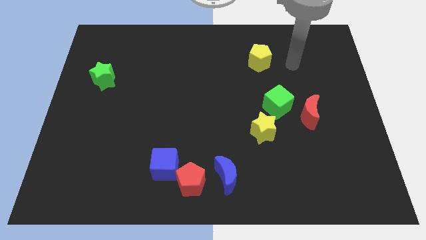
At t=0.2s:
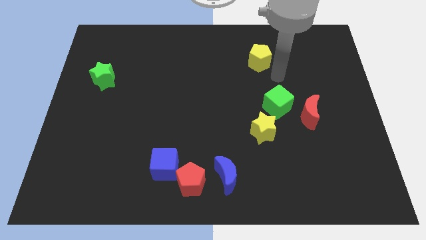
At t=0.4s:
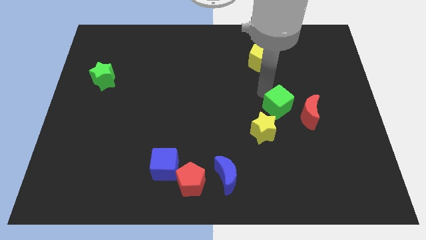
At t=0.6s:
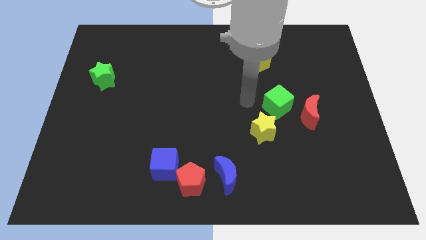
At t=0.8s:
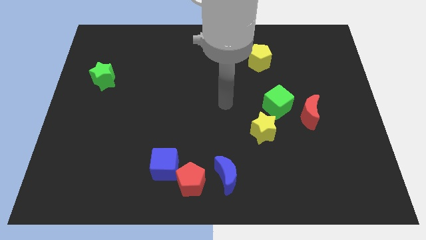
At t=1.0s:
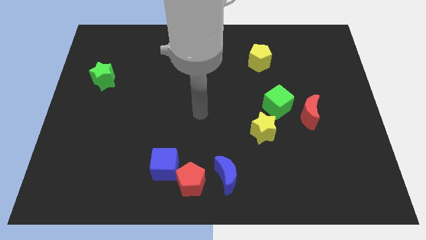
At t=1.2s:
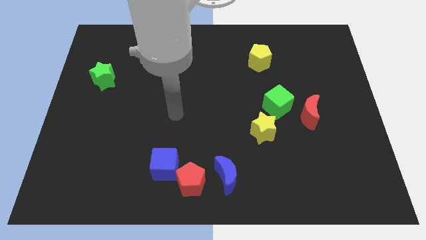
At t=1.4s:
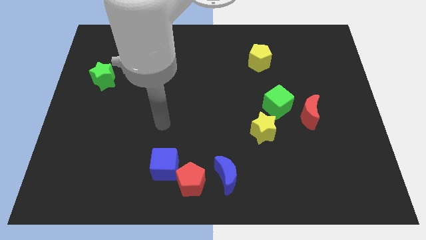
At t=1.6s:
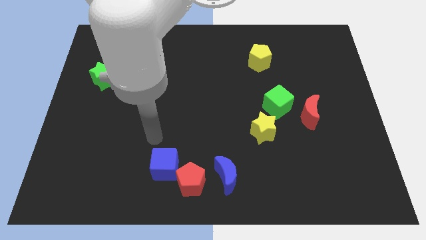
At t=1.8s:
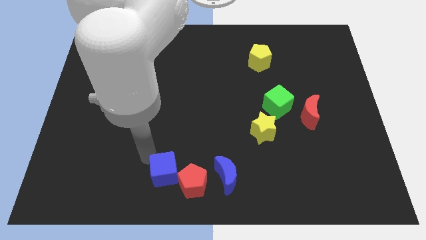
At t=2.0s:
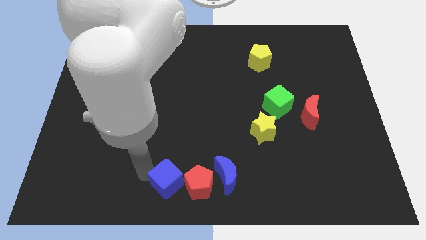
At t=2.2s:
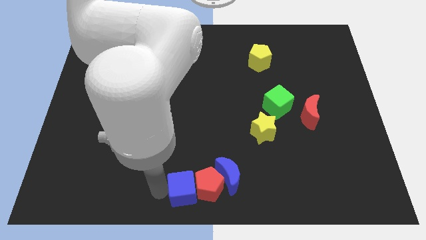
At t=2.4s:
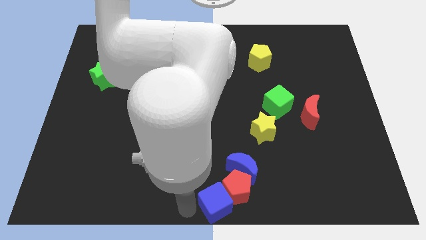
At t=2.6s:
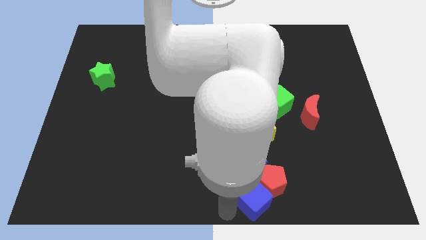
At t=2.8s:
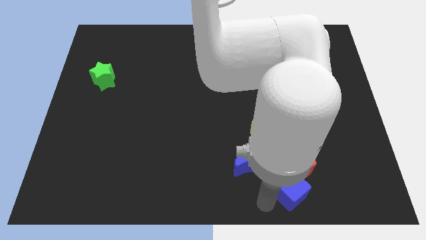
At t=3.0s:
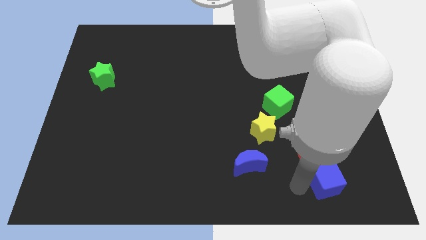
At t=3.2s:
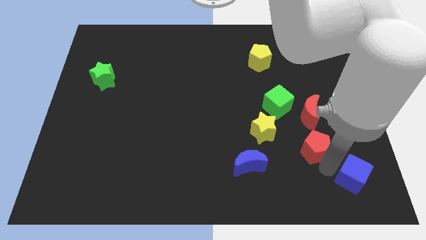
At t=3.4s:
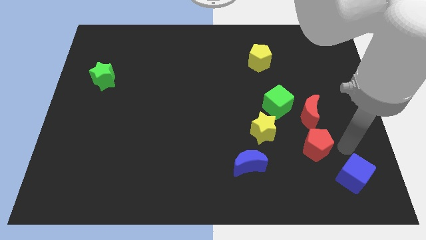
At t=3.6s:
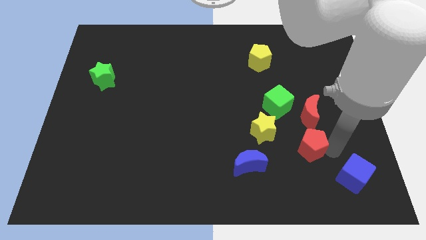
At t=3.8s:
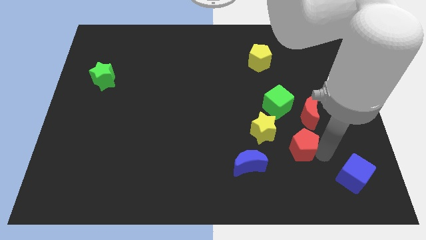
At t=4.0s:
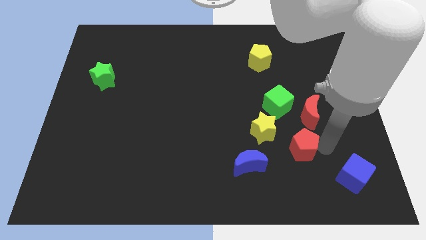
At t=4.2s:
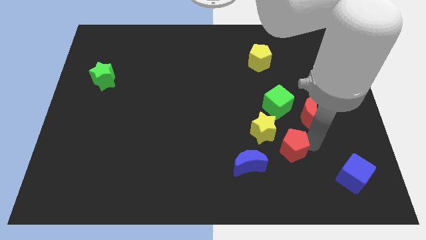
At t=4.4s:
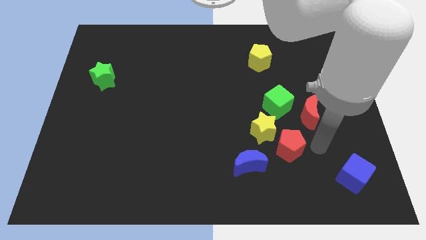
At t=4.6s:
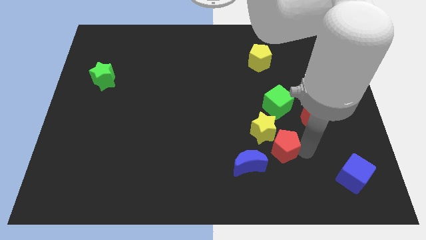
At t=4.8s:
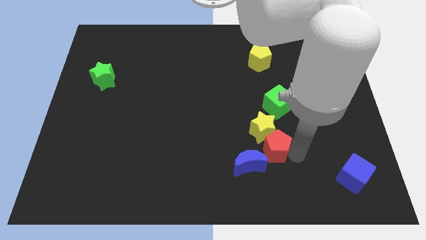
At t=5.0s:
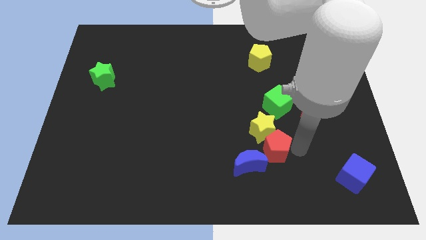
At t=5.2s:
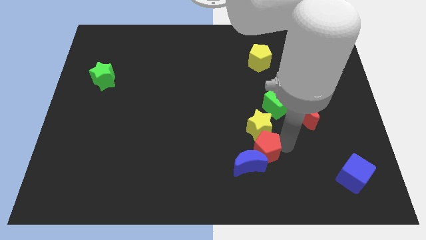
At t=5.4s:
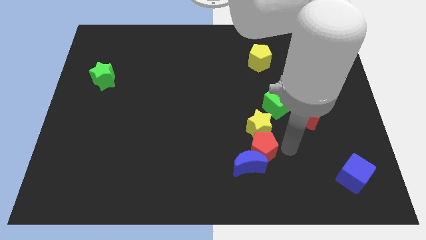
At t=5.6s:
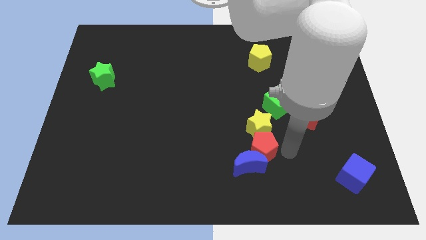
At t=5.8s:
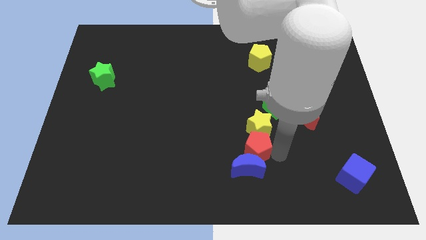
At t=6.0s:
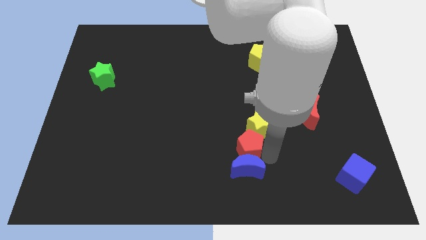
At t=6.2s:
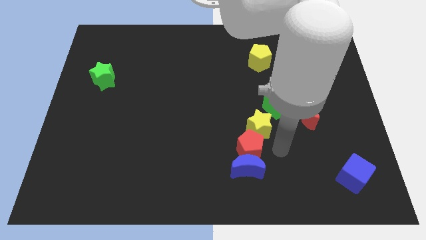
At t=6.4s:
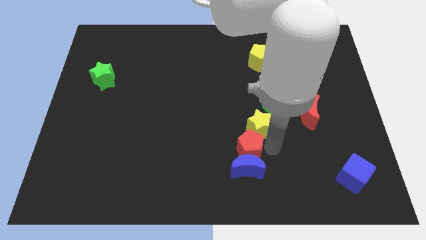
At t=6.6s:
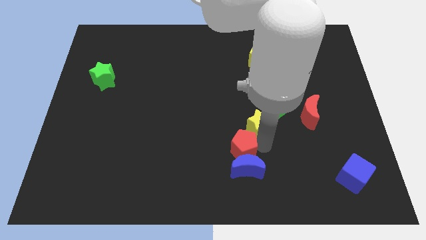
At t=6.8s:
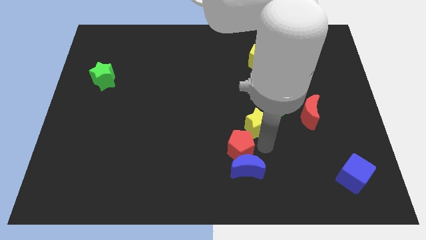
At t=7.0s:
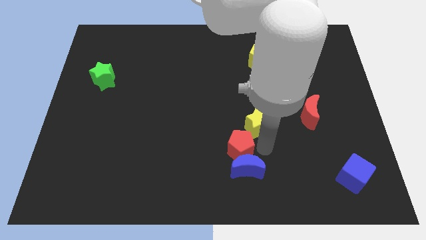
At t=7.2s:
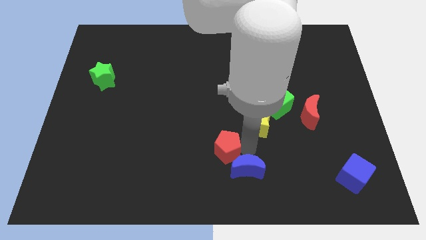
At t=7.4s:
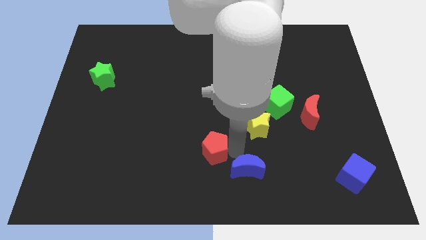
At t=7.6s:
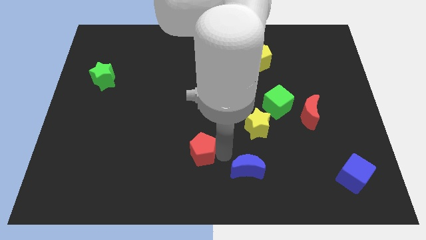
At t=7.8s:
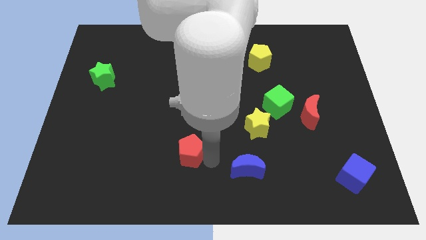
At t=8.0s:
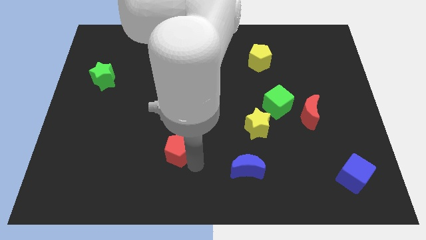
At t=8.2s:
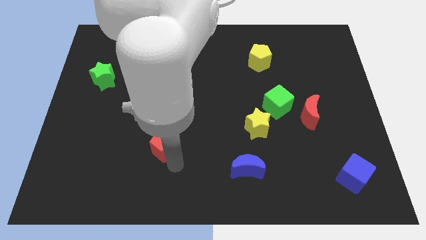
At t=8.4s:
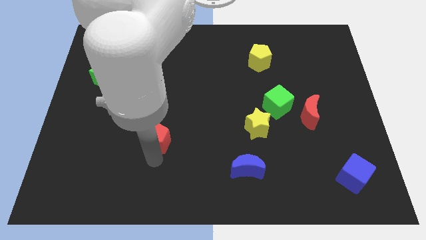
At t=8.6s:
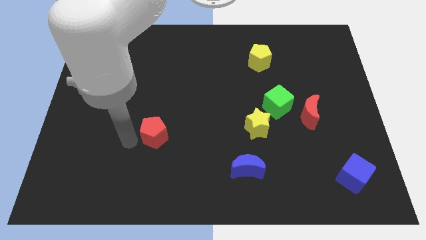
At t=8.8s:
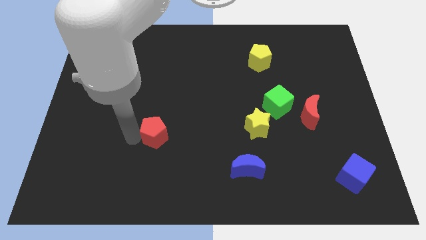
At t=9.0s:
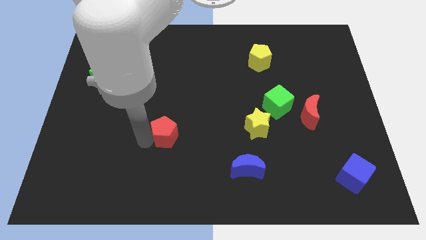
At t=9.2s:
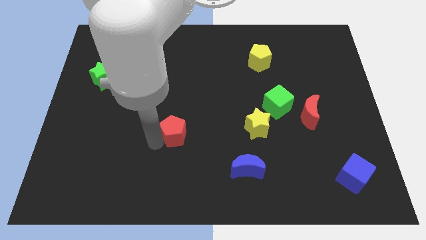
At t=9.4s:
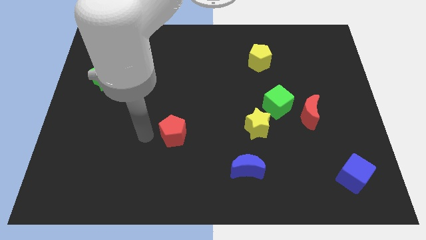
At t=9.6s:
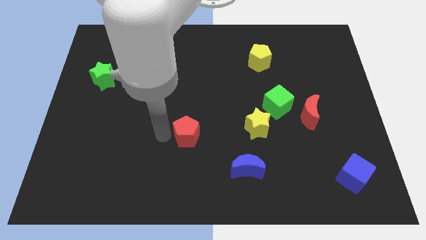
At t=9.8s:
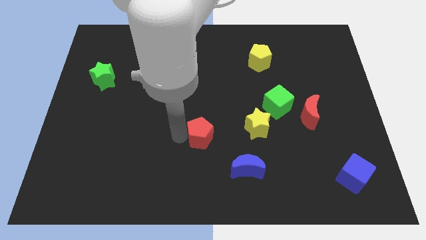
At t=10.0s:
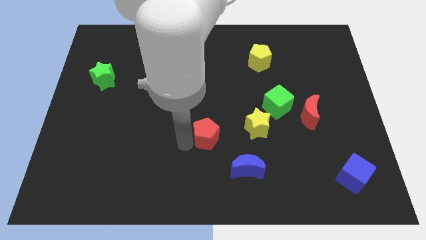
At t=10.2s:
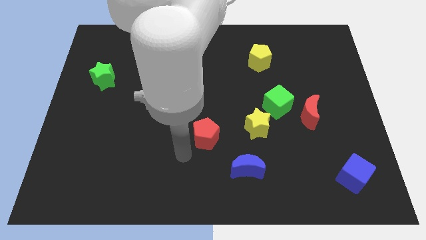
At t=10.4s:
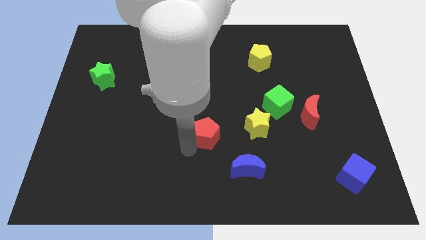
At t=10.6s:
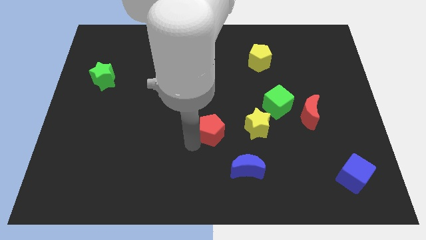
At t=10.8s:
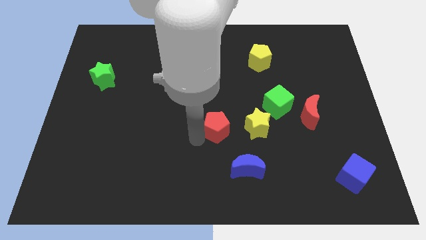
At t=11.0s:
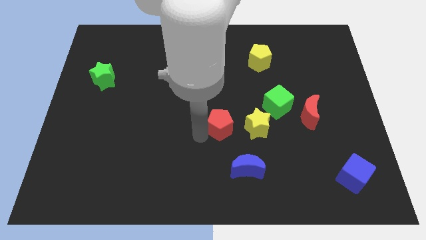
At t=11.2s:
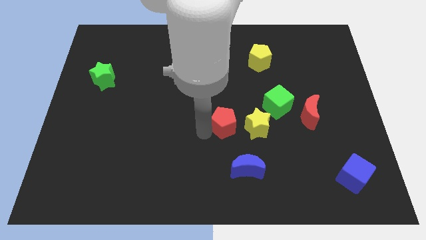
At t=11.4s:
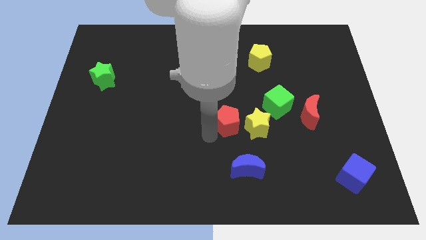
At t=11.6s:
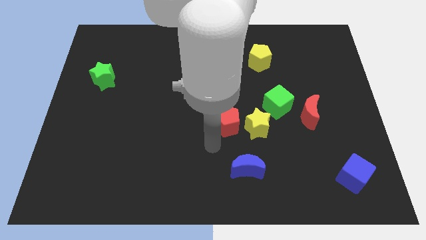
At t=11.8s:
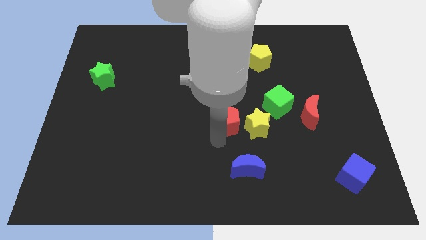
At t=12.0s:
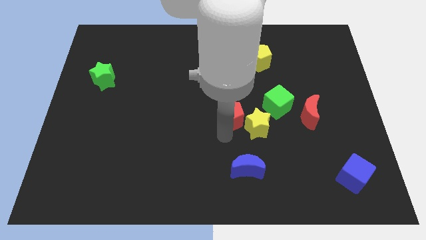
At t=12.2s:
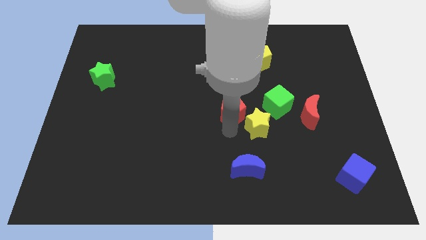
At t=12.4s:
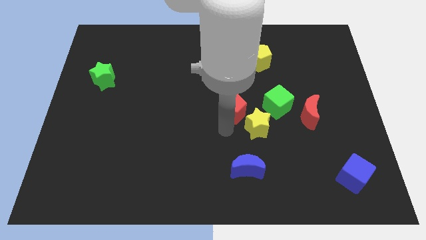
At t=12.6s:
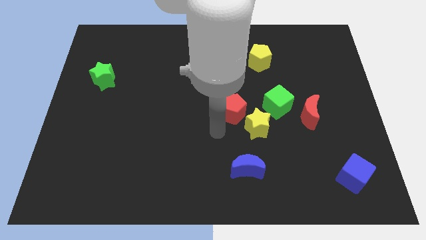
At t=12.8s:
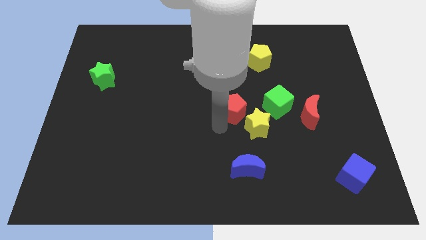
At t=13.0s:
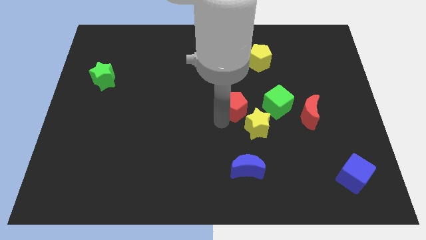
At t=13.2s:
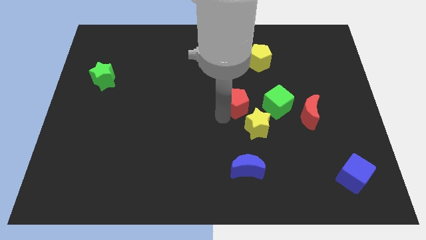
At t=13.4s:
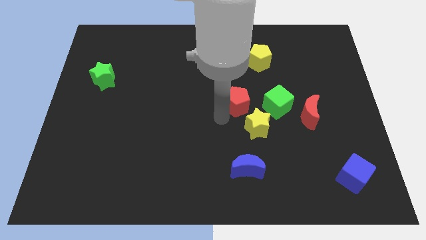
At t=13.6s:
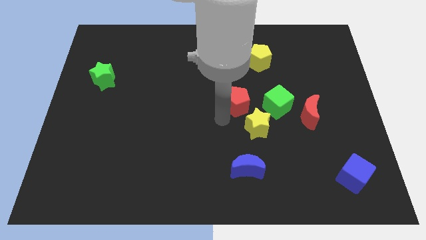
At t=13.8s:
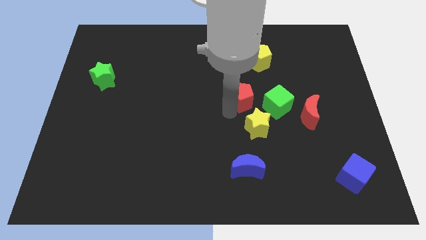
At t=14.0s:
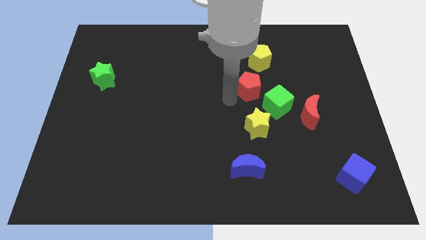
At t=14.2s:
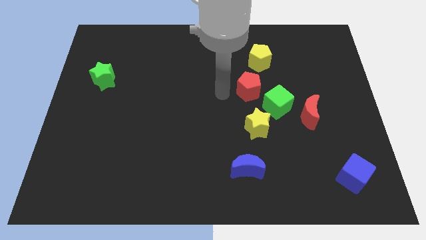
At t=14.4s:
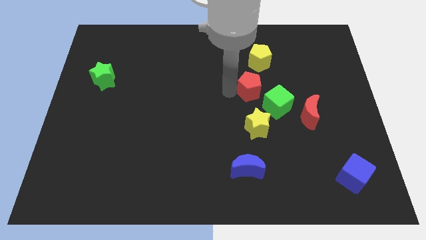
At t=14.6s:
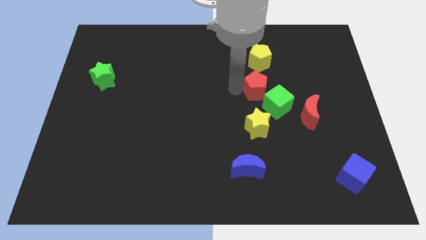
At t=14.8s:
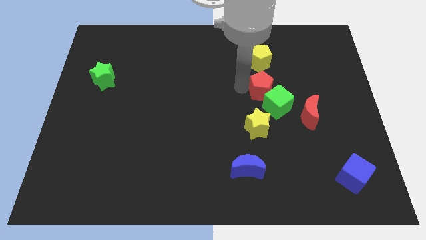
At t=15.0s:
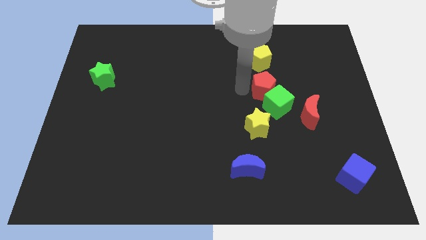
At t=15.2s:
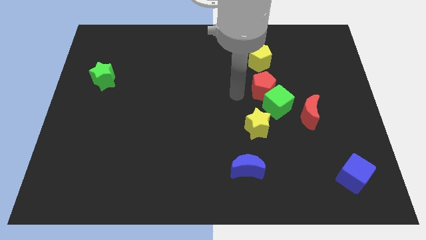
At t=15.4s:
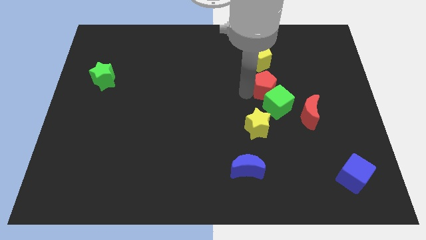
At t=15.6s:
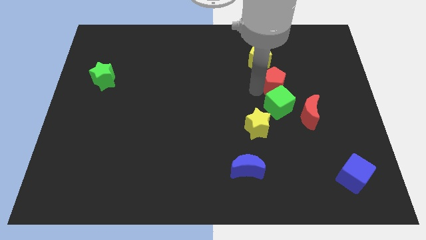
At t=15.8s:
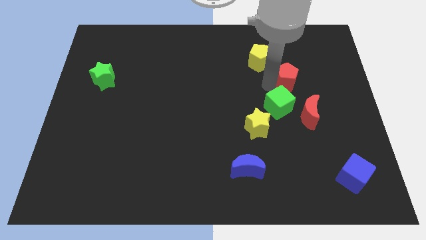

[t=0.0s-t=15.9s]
slide the red pentagon to the top of the red moon
